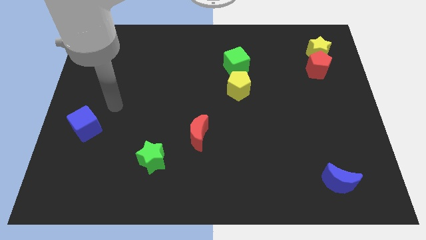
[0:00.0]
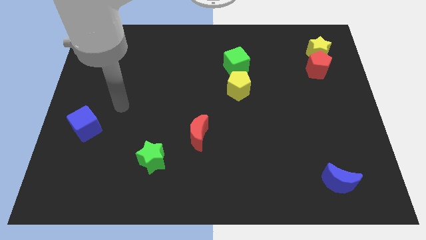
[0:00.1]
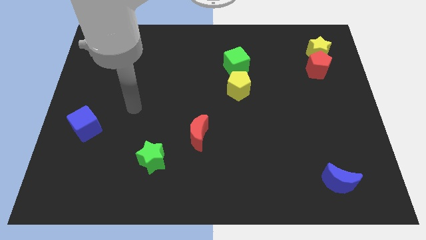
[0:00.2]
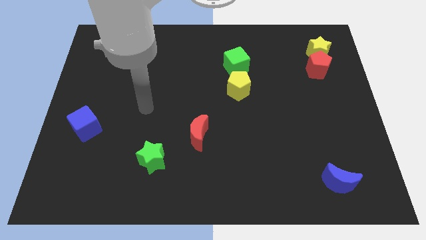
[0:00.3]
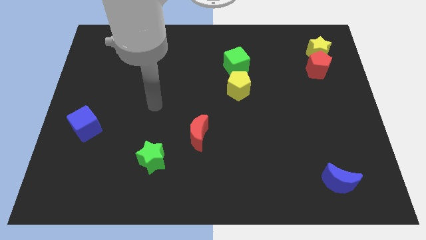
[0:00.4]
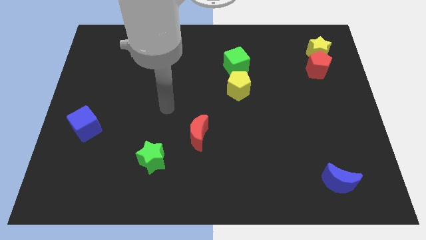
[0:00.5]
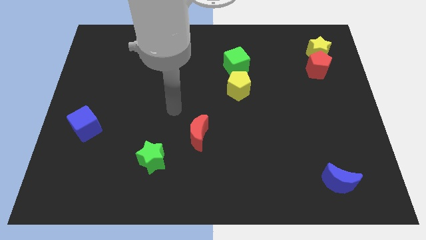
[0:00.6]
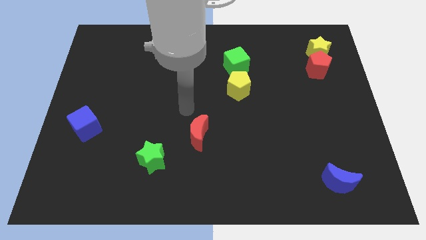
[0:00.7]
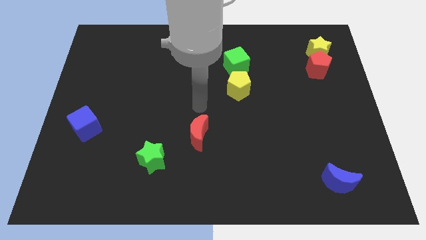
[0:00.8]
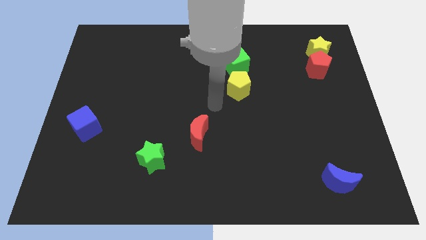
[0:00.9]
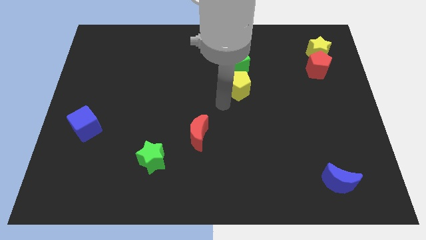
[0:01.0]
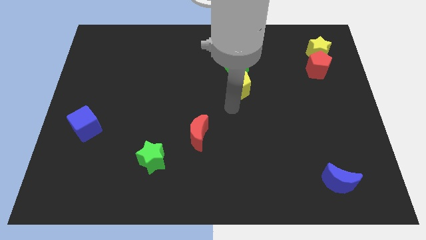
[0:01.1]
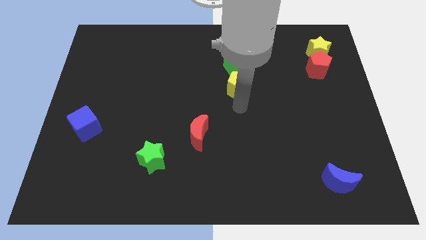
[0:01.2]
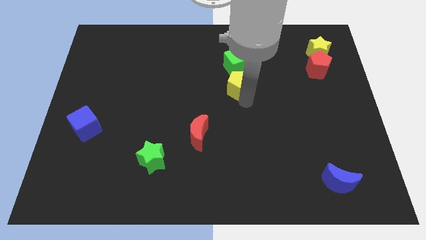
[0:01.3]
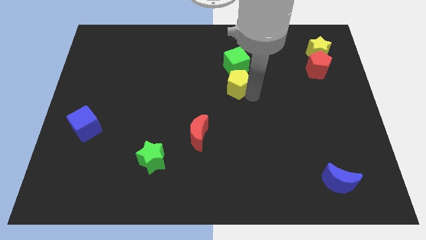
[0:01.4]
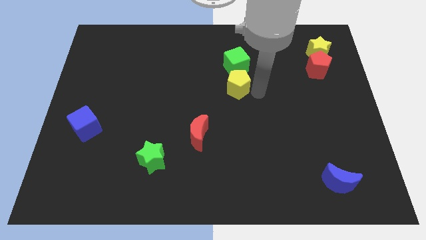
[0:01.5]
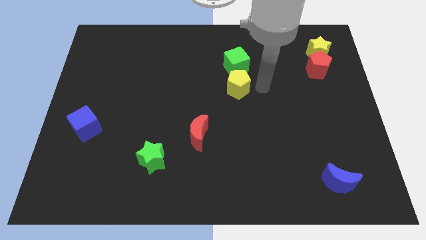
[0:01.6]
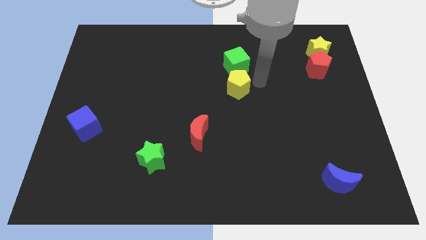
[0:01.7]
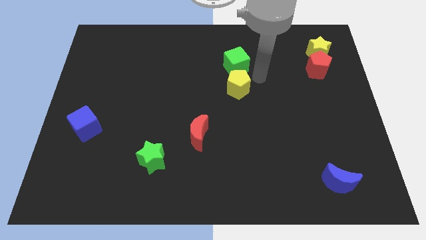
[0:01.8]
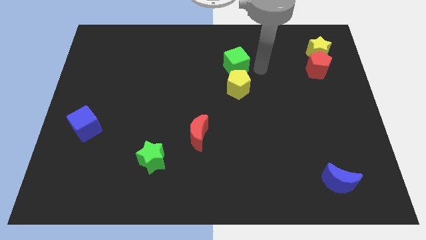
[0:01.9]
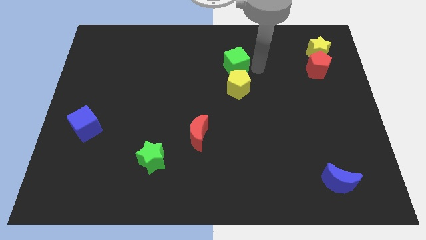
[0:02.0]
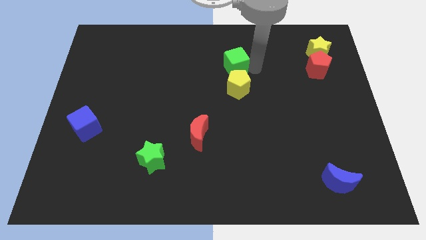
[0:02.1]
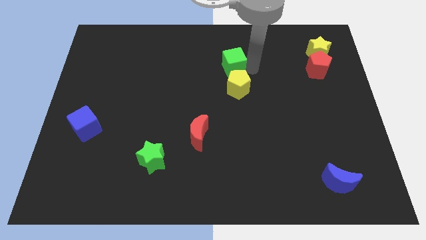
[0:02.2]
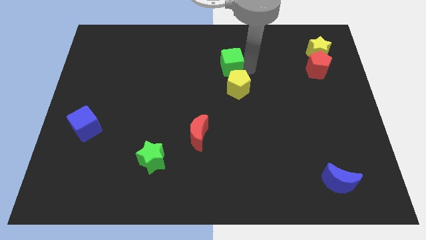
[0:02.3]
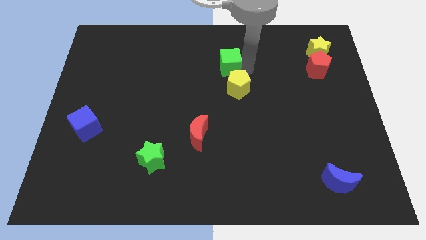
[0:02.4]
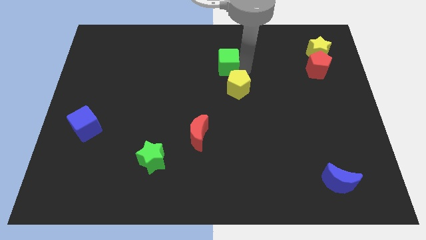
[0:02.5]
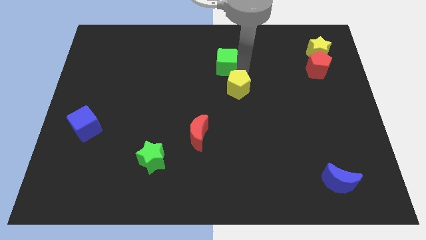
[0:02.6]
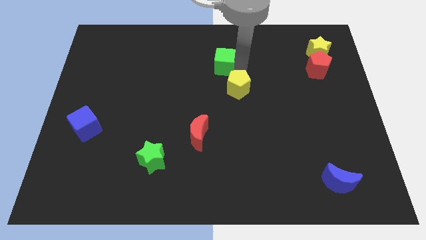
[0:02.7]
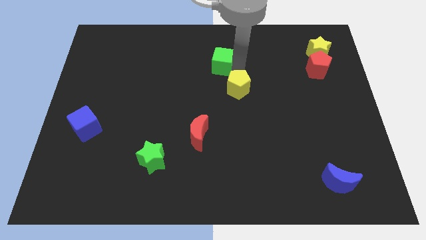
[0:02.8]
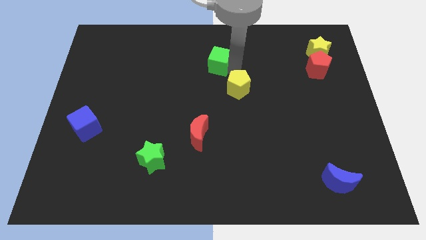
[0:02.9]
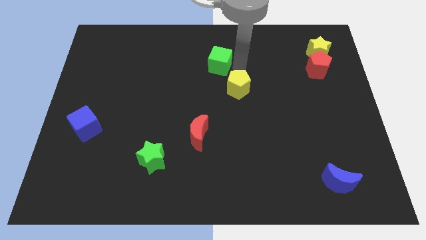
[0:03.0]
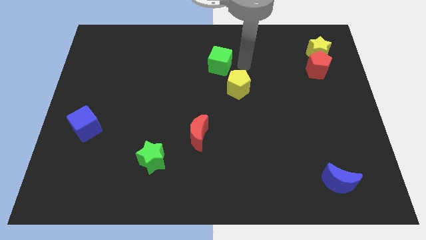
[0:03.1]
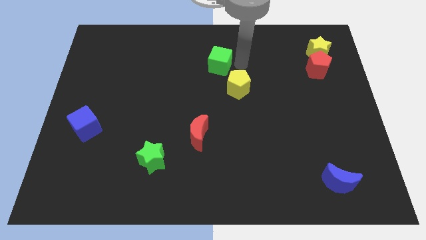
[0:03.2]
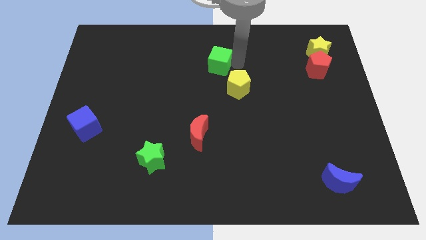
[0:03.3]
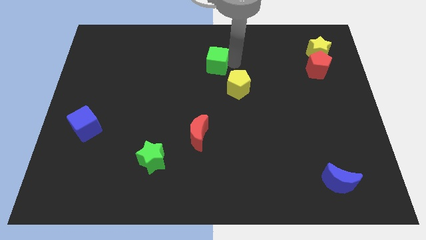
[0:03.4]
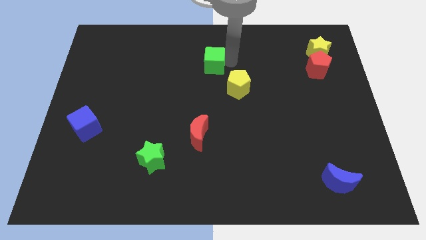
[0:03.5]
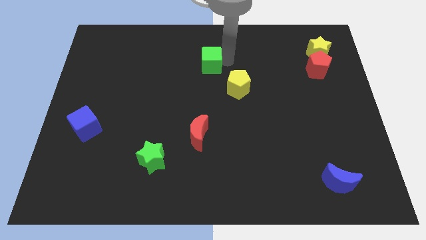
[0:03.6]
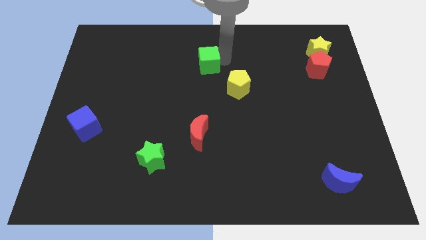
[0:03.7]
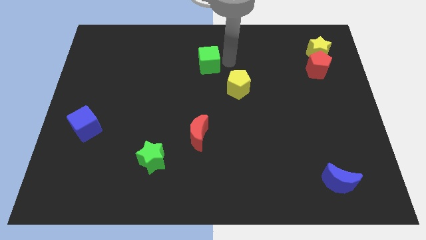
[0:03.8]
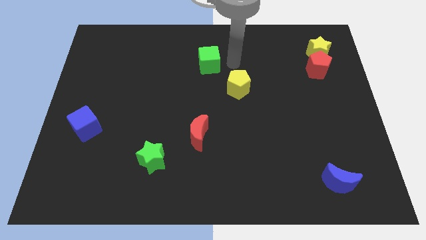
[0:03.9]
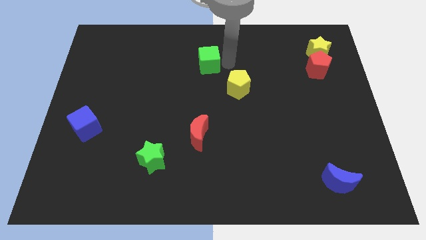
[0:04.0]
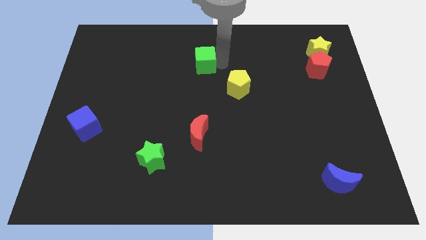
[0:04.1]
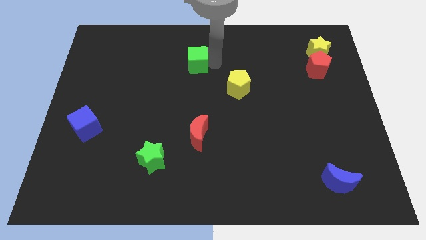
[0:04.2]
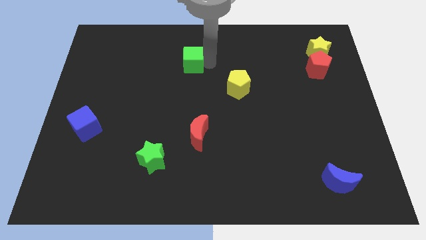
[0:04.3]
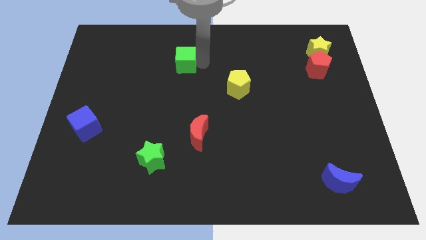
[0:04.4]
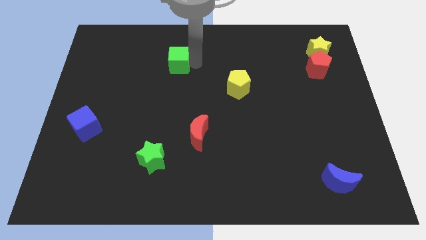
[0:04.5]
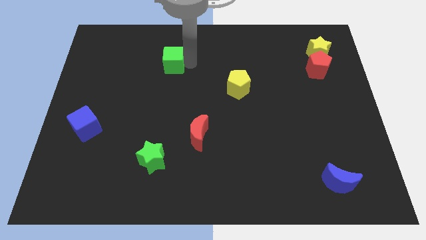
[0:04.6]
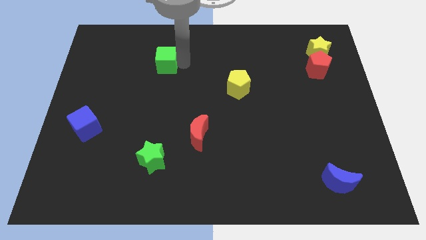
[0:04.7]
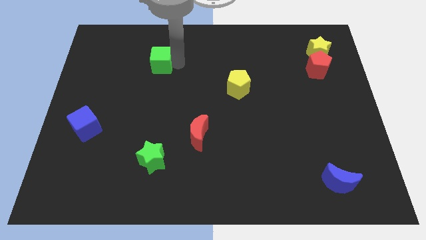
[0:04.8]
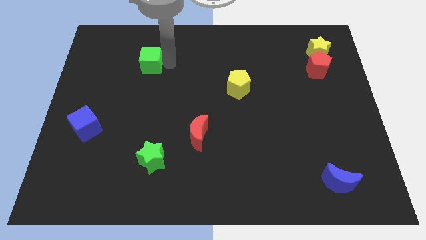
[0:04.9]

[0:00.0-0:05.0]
slide the green cube to the left

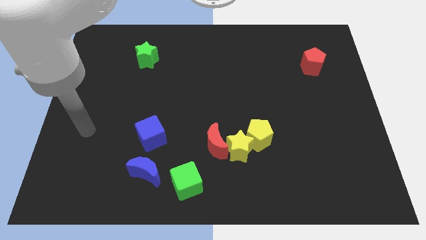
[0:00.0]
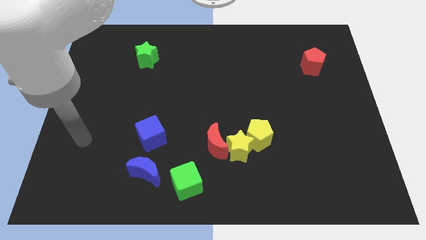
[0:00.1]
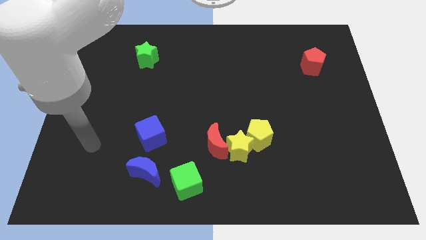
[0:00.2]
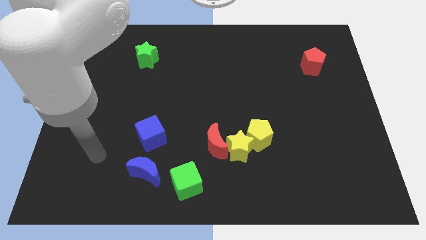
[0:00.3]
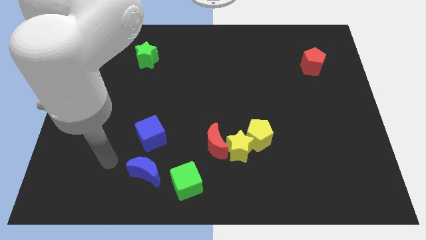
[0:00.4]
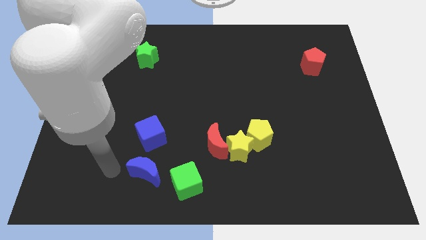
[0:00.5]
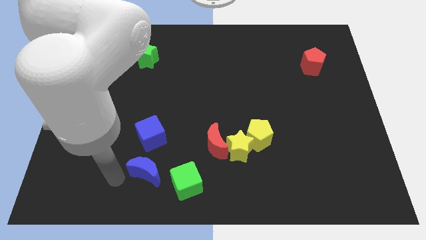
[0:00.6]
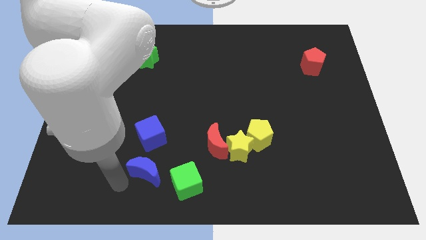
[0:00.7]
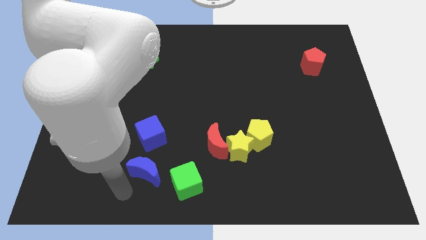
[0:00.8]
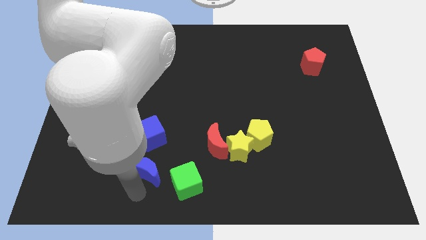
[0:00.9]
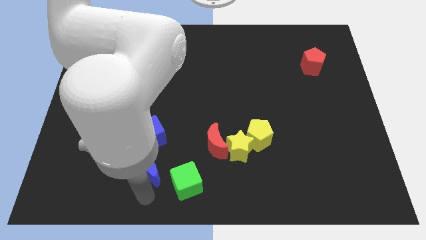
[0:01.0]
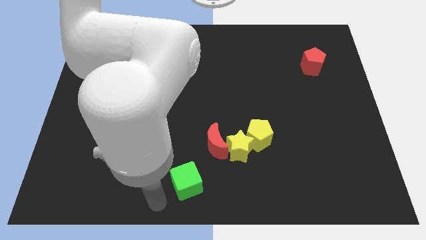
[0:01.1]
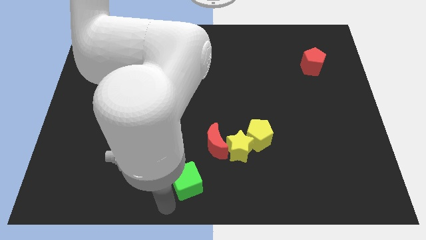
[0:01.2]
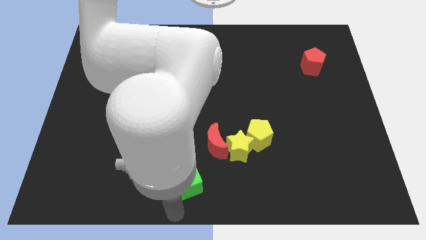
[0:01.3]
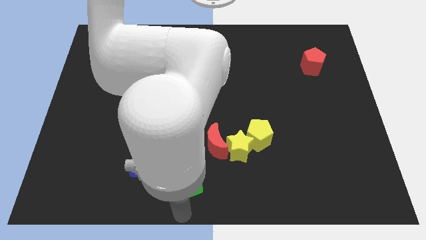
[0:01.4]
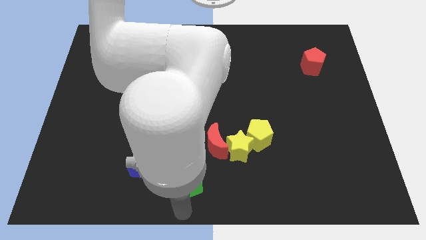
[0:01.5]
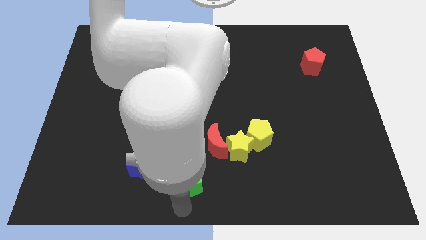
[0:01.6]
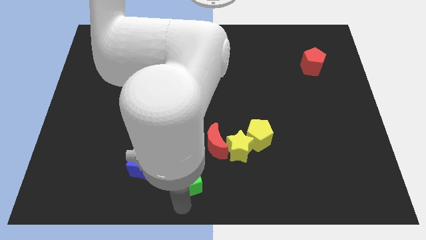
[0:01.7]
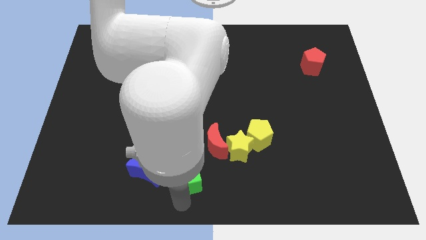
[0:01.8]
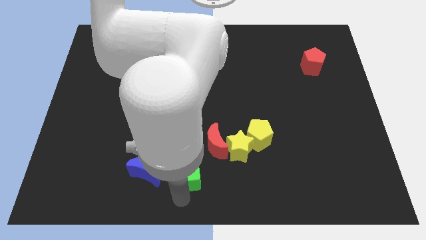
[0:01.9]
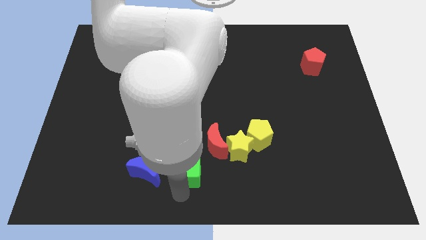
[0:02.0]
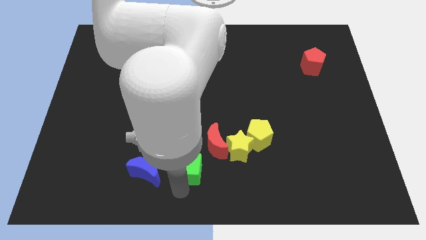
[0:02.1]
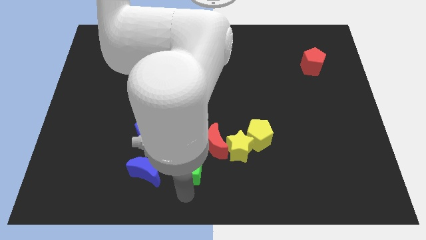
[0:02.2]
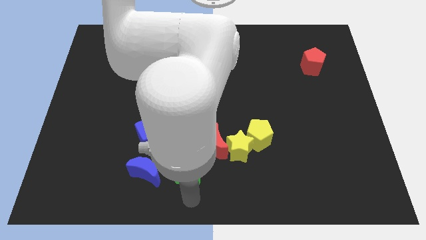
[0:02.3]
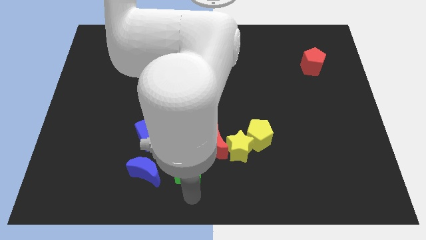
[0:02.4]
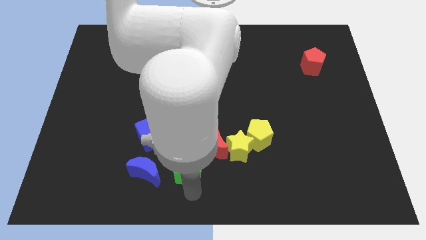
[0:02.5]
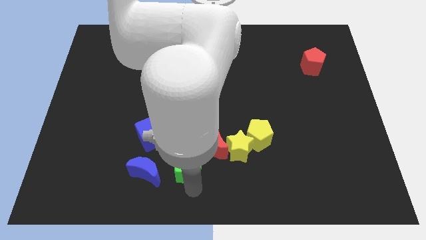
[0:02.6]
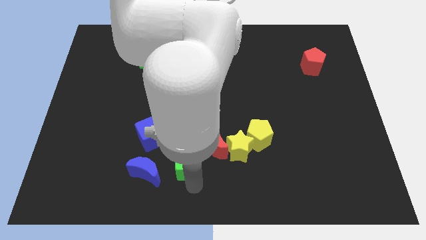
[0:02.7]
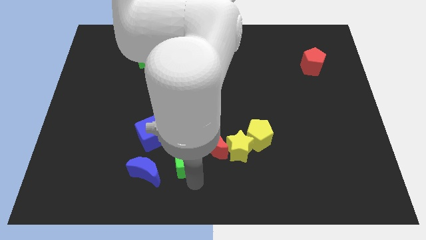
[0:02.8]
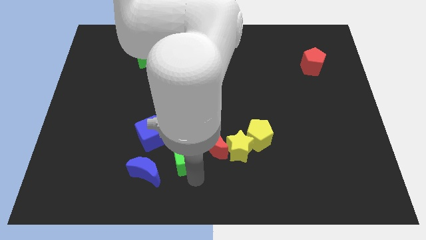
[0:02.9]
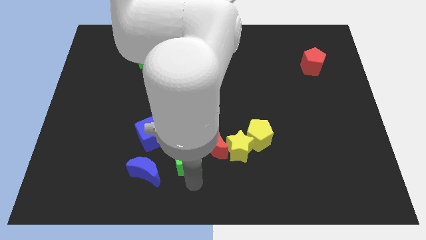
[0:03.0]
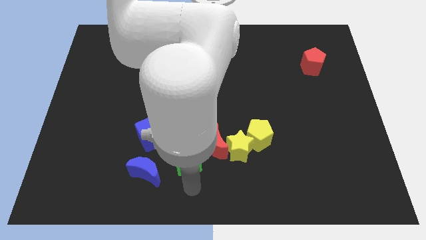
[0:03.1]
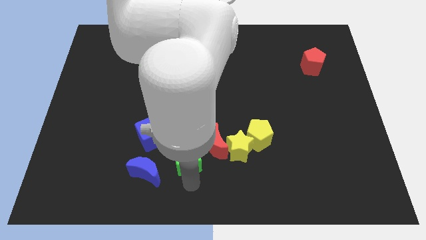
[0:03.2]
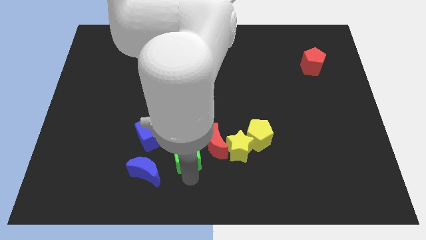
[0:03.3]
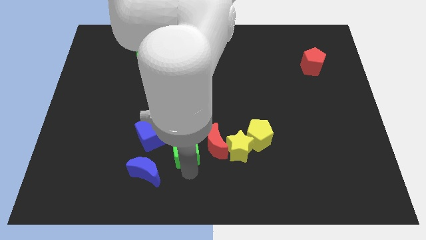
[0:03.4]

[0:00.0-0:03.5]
push the green cube upwards a little bit
